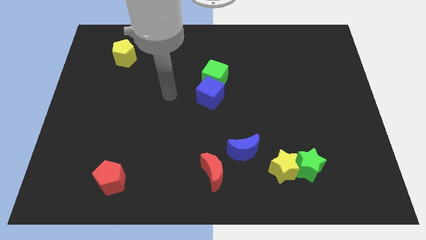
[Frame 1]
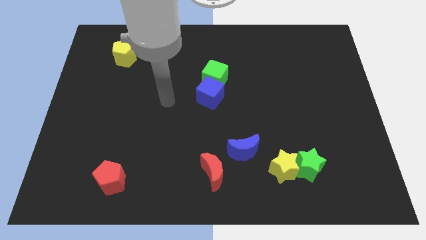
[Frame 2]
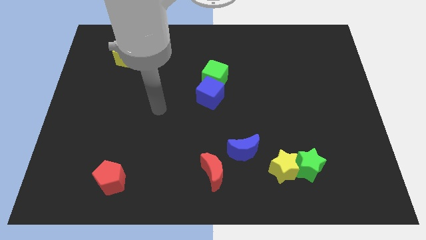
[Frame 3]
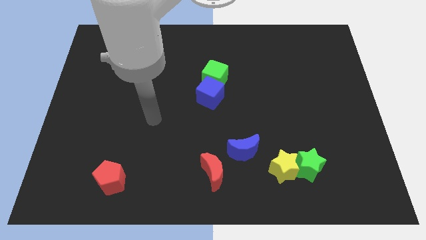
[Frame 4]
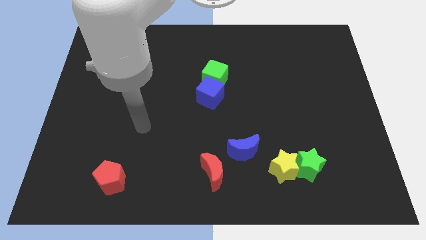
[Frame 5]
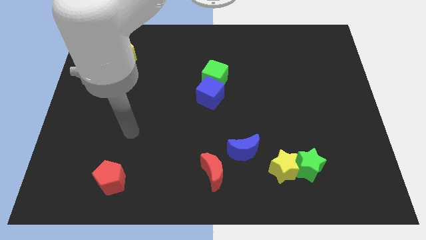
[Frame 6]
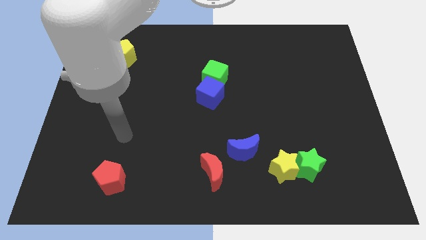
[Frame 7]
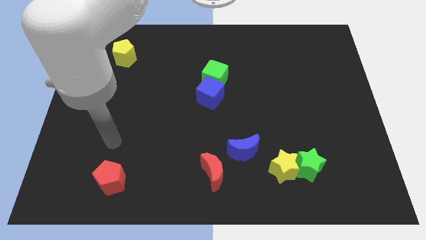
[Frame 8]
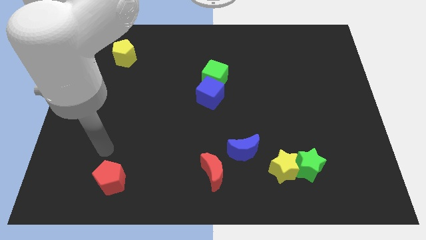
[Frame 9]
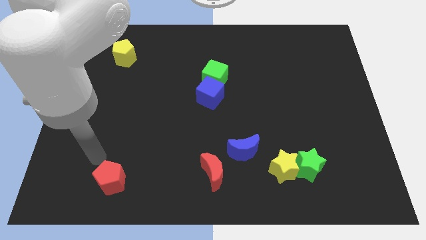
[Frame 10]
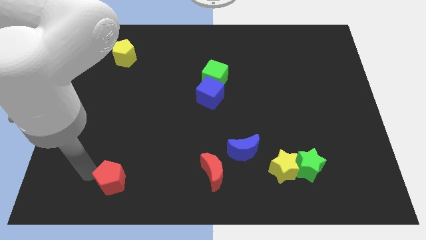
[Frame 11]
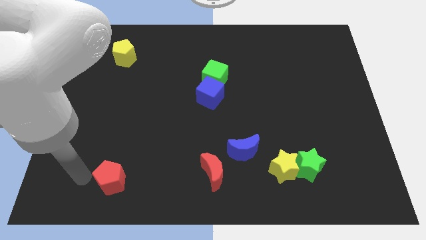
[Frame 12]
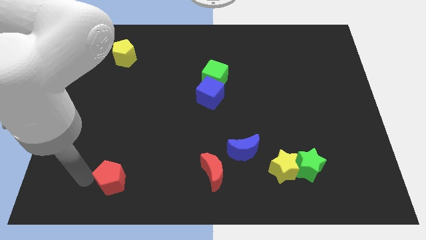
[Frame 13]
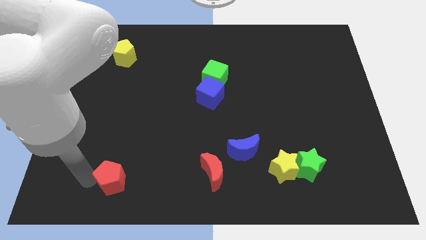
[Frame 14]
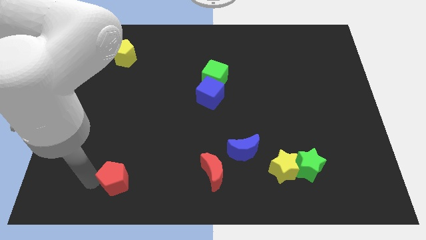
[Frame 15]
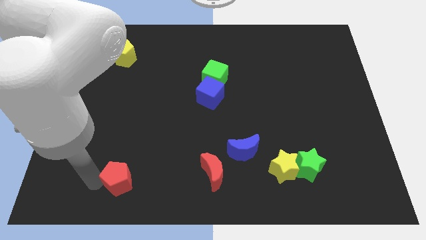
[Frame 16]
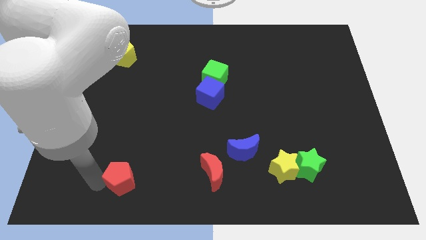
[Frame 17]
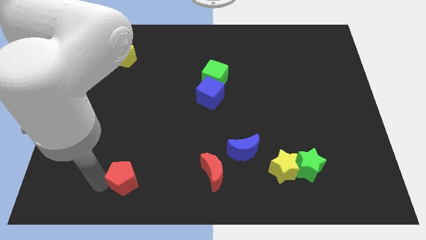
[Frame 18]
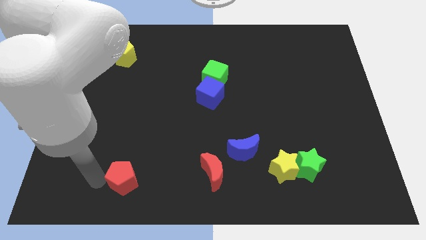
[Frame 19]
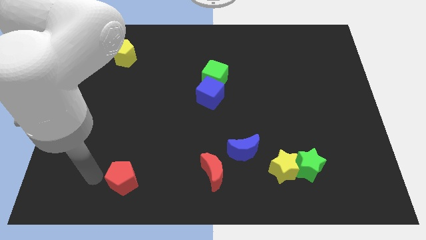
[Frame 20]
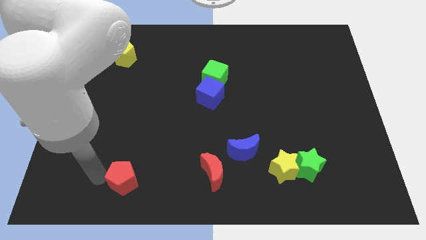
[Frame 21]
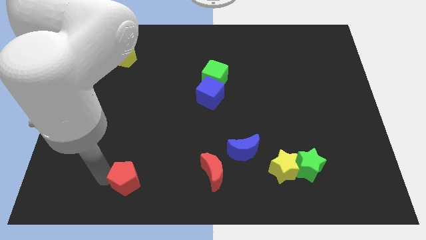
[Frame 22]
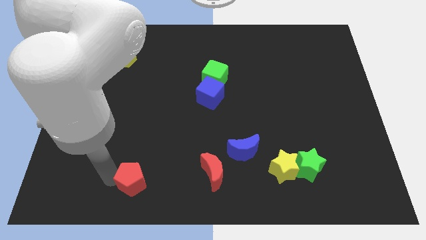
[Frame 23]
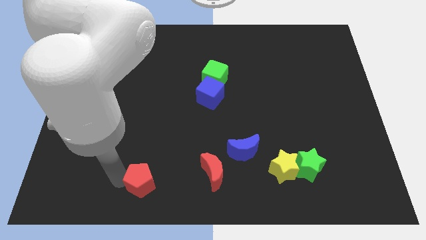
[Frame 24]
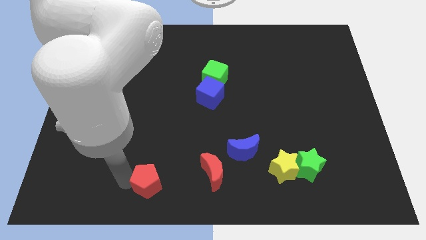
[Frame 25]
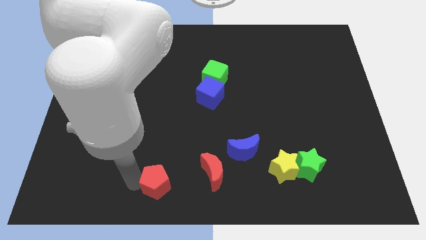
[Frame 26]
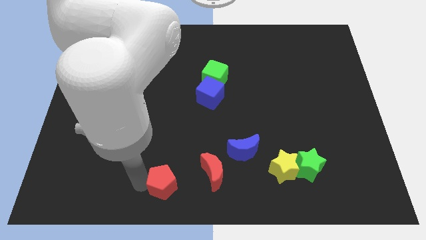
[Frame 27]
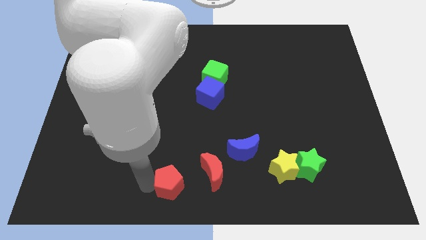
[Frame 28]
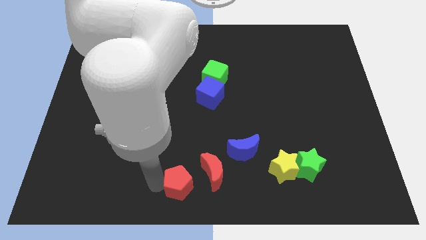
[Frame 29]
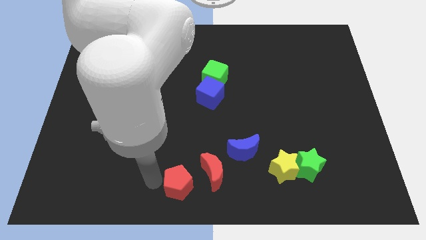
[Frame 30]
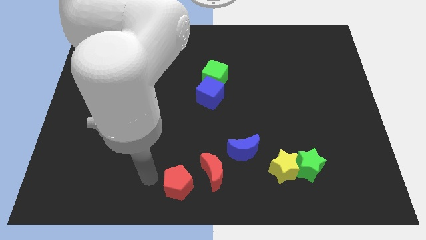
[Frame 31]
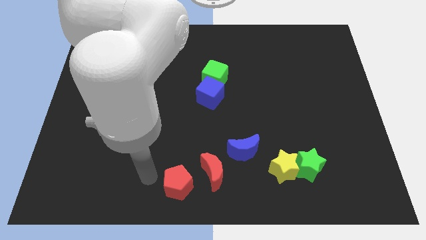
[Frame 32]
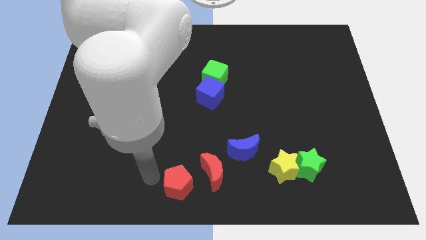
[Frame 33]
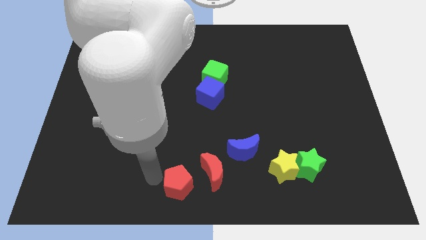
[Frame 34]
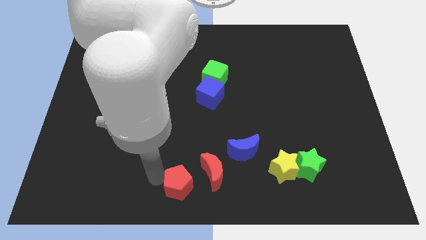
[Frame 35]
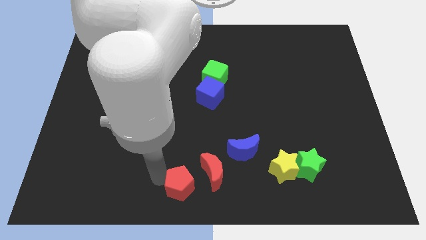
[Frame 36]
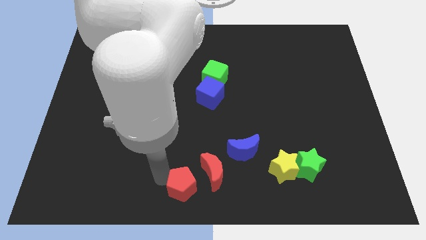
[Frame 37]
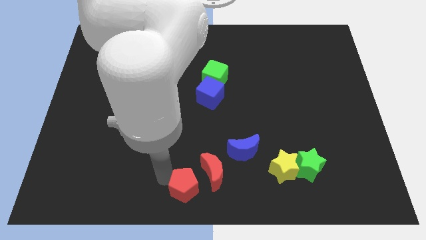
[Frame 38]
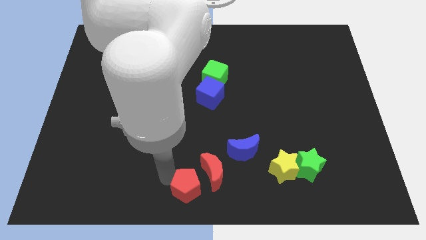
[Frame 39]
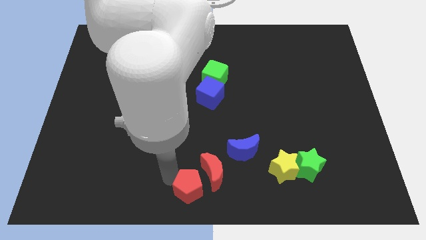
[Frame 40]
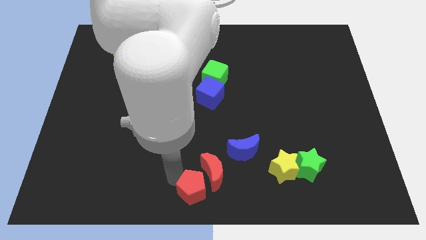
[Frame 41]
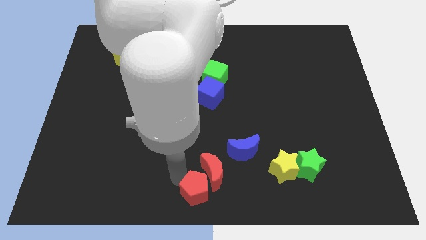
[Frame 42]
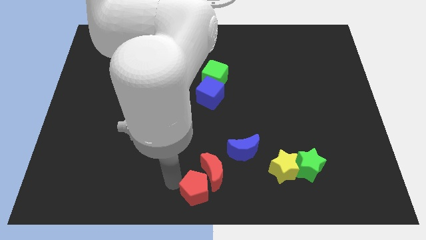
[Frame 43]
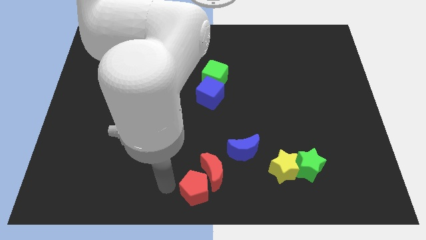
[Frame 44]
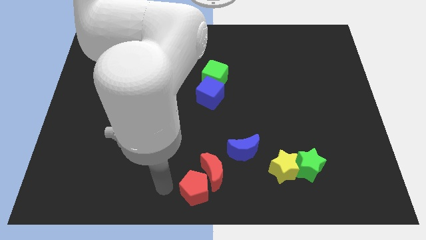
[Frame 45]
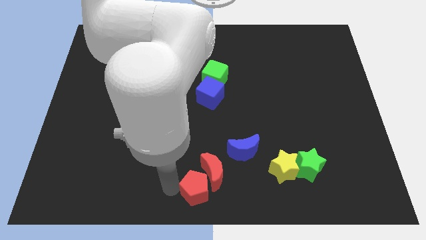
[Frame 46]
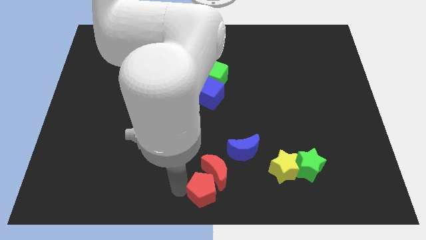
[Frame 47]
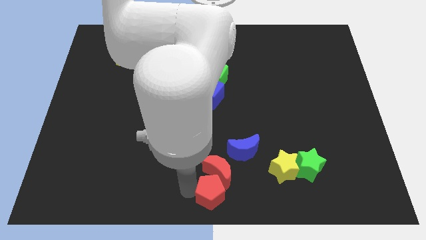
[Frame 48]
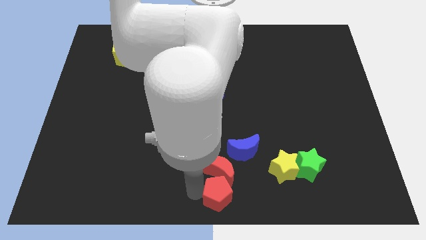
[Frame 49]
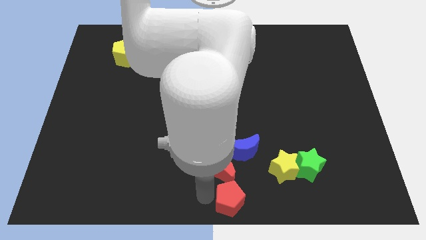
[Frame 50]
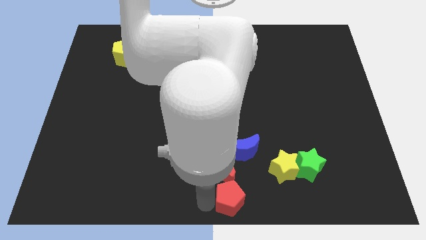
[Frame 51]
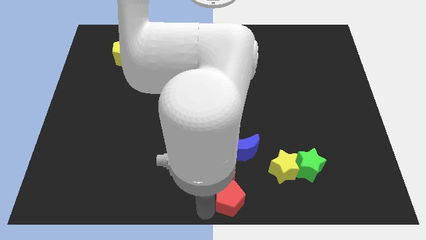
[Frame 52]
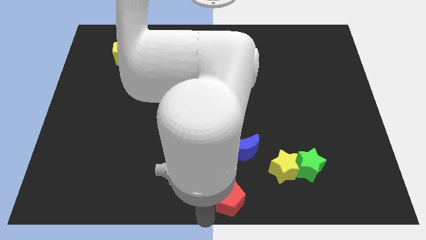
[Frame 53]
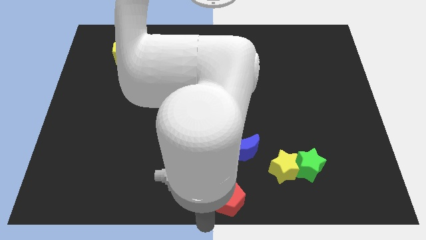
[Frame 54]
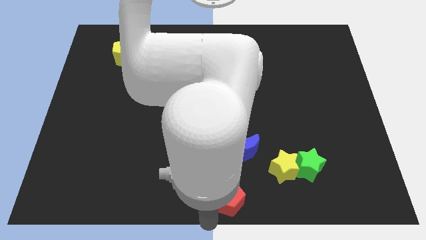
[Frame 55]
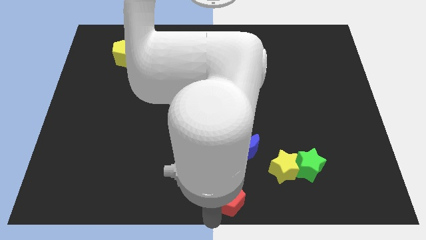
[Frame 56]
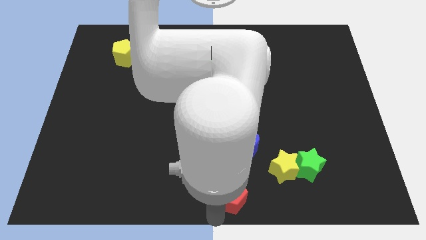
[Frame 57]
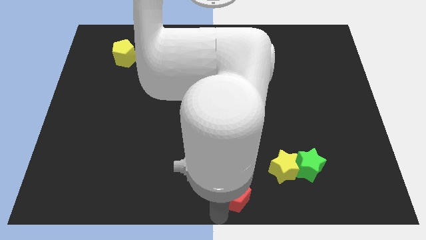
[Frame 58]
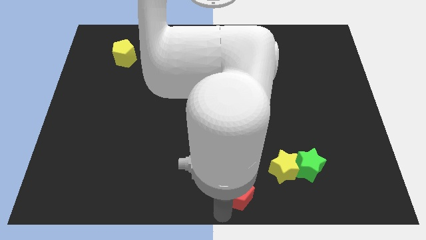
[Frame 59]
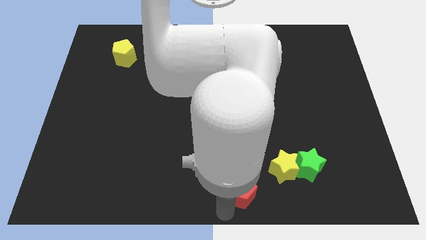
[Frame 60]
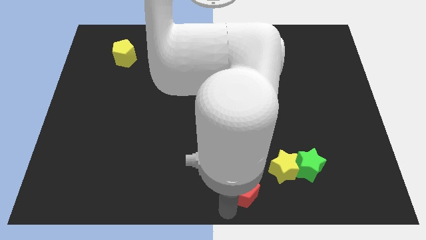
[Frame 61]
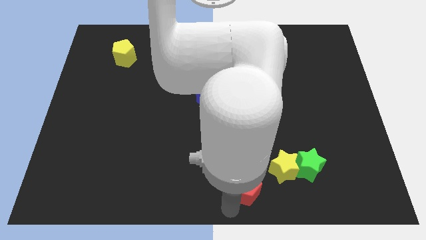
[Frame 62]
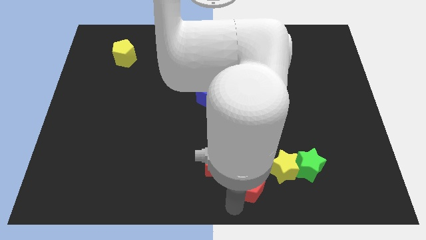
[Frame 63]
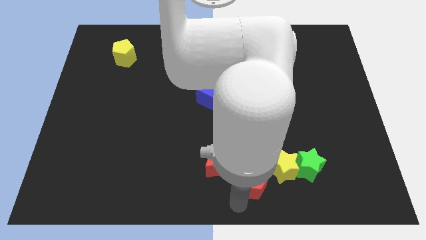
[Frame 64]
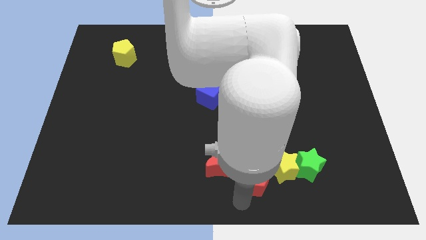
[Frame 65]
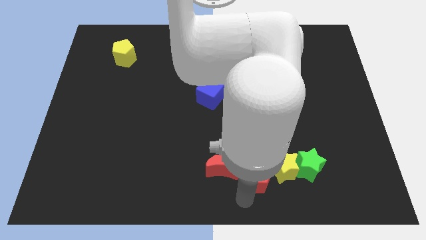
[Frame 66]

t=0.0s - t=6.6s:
push the red pentagon next to the yellow star
